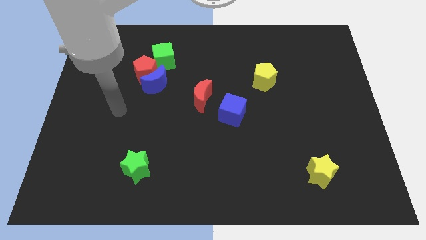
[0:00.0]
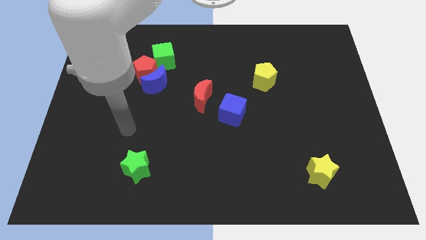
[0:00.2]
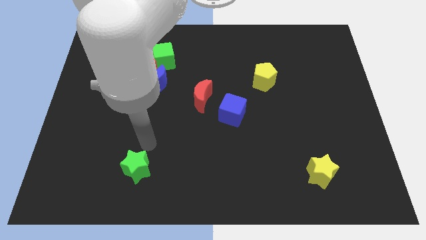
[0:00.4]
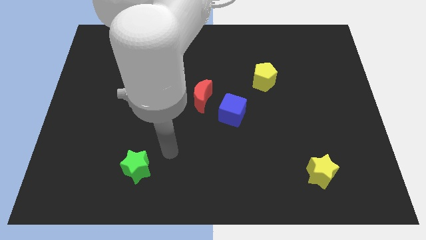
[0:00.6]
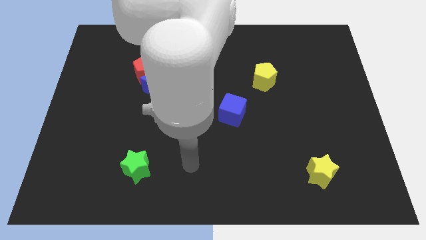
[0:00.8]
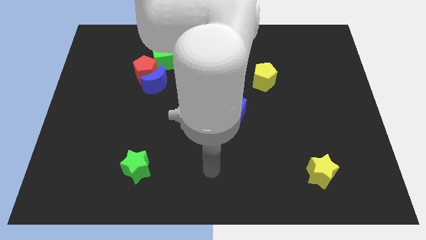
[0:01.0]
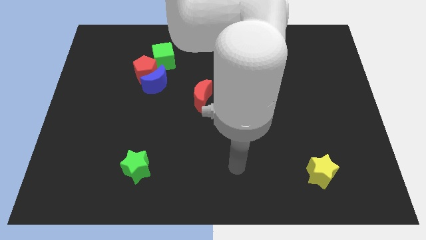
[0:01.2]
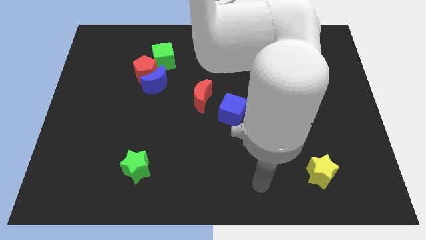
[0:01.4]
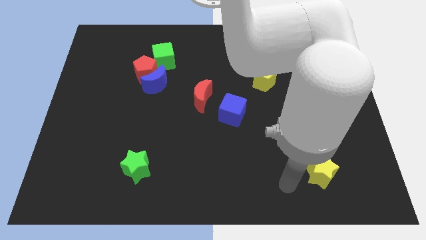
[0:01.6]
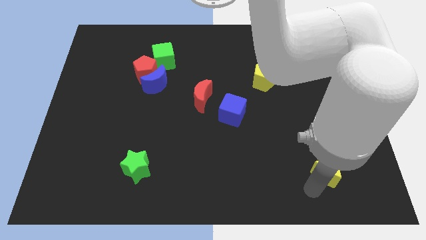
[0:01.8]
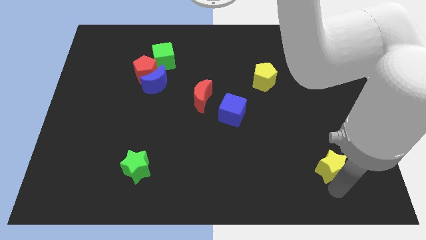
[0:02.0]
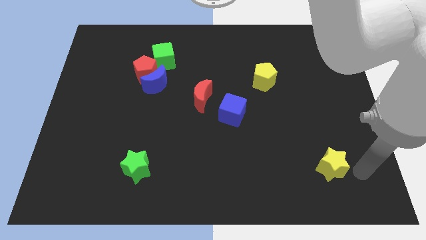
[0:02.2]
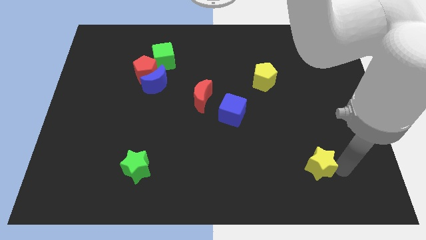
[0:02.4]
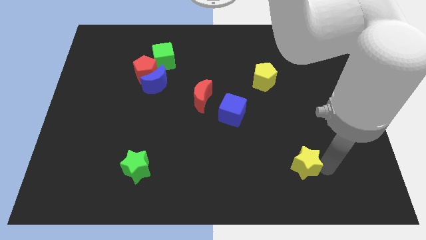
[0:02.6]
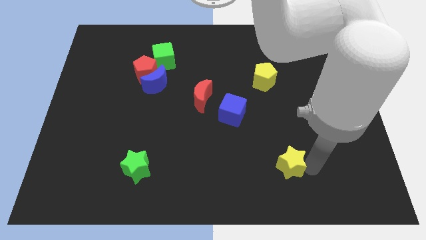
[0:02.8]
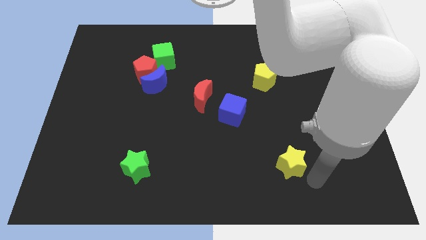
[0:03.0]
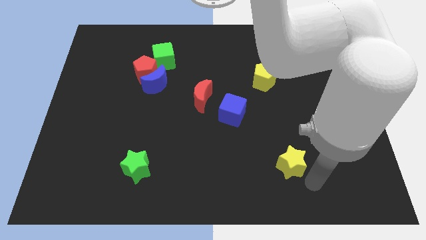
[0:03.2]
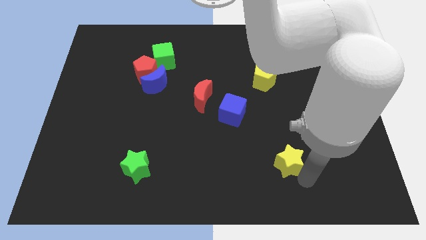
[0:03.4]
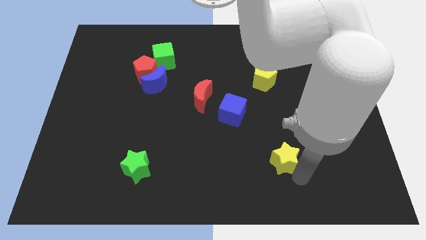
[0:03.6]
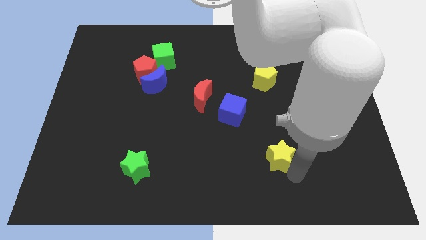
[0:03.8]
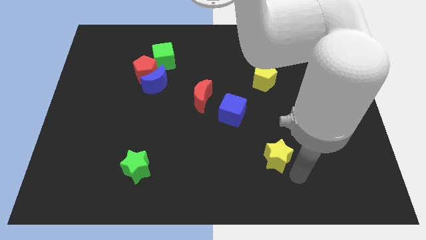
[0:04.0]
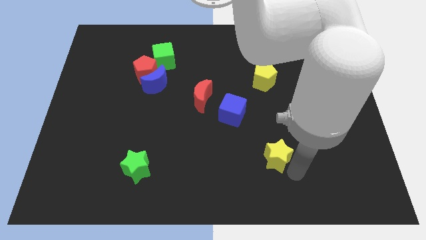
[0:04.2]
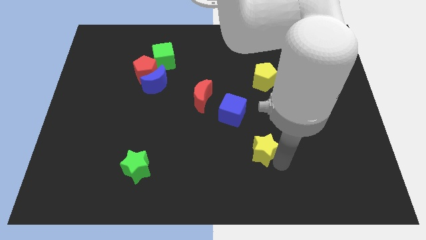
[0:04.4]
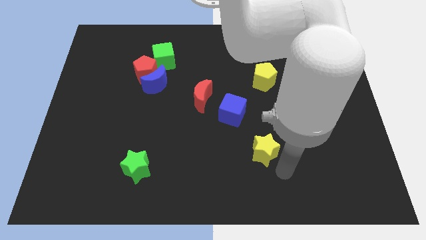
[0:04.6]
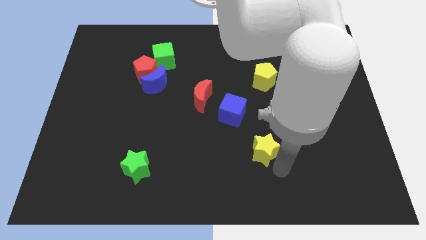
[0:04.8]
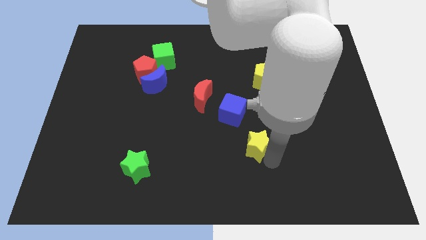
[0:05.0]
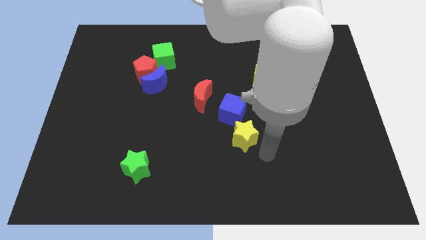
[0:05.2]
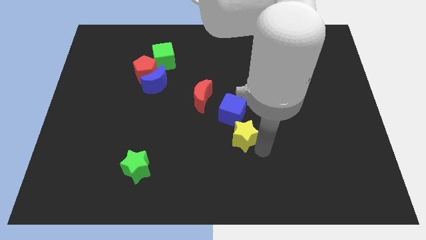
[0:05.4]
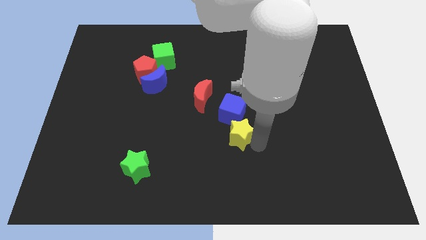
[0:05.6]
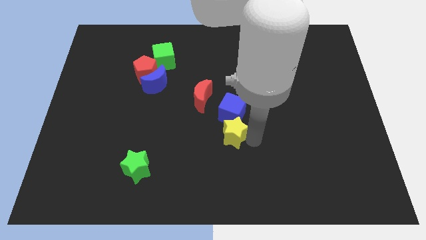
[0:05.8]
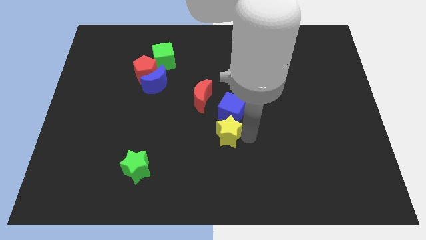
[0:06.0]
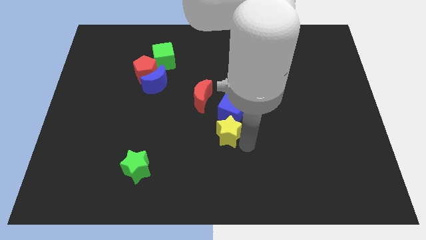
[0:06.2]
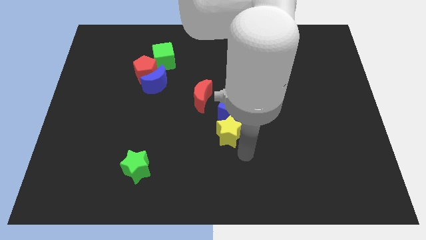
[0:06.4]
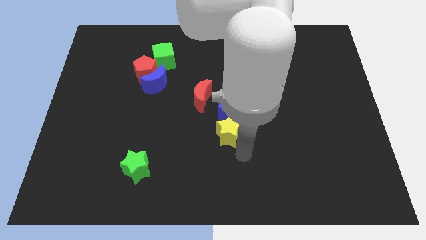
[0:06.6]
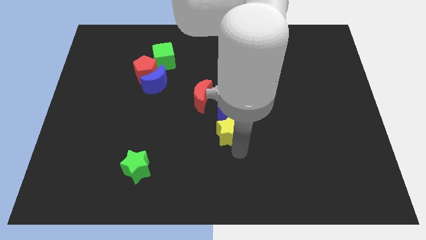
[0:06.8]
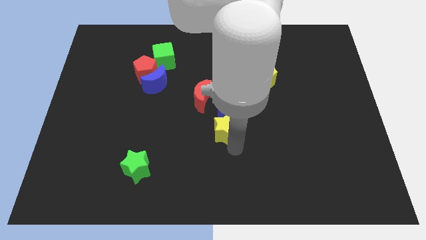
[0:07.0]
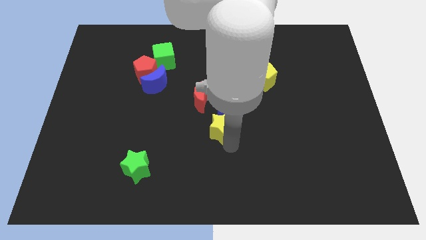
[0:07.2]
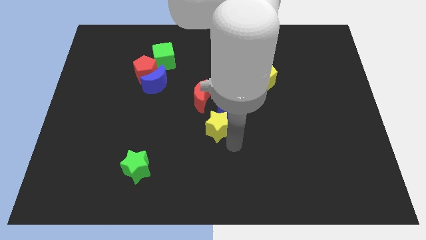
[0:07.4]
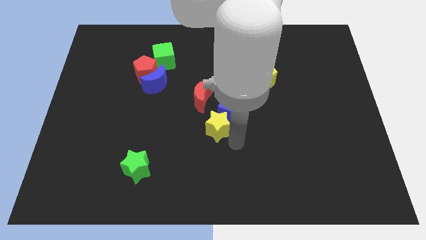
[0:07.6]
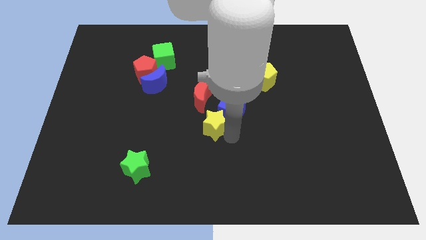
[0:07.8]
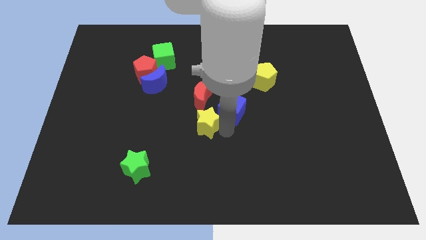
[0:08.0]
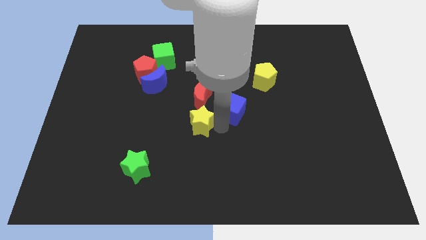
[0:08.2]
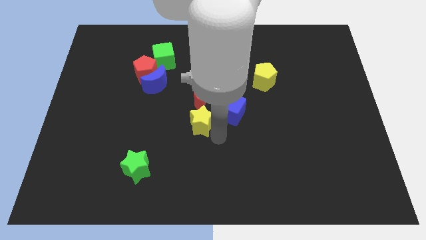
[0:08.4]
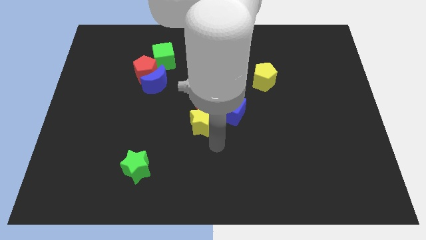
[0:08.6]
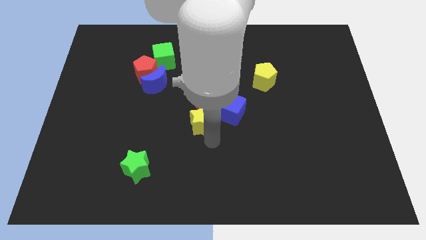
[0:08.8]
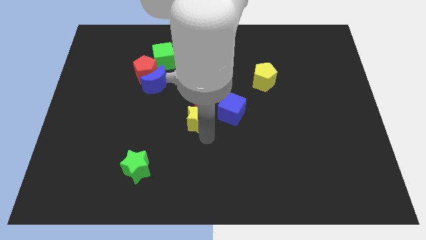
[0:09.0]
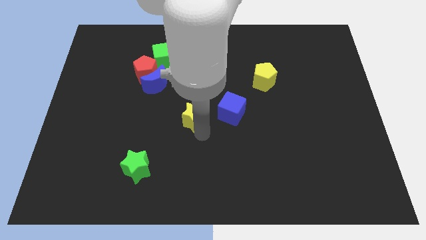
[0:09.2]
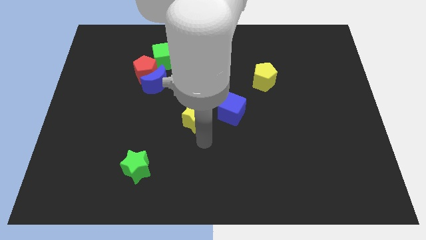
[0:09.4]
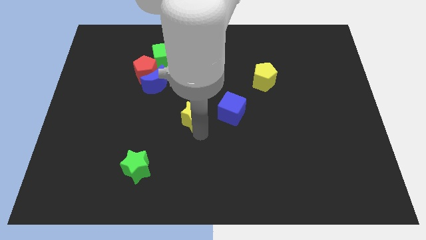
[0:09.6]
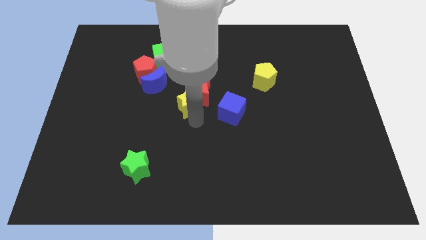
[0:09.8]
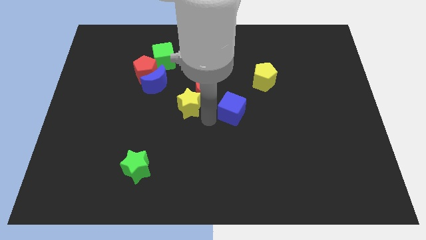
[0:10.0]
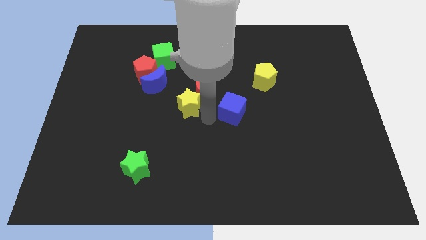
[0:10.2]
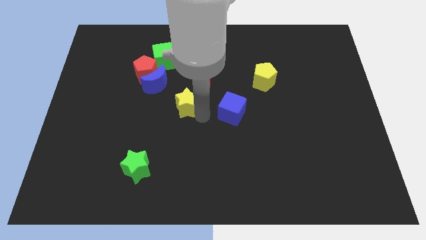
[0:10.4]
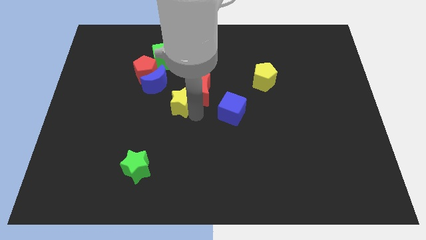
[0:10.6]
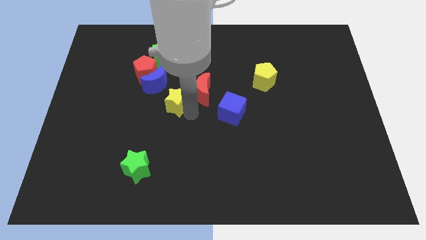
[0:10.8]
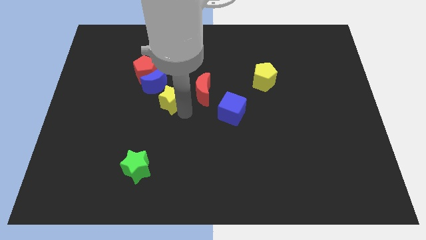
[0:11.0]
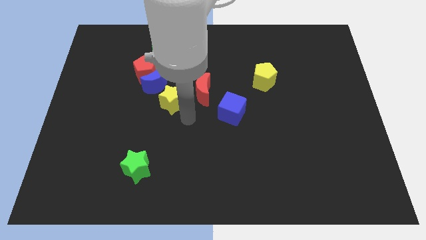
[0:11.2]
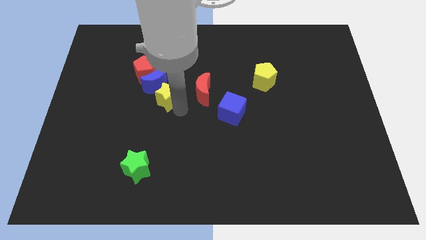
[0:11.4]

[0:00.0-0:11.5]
put the yellow star close to the blue moon

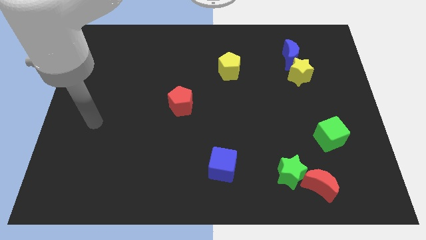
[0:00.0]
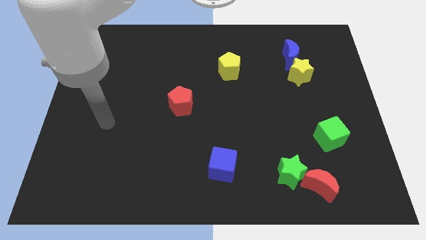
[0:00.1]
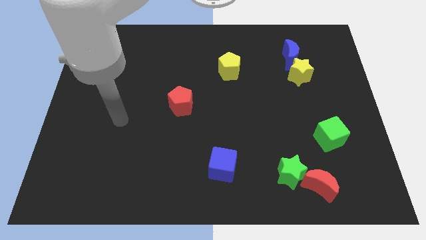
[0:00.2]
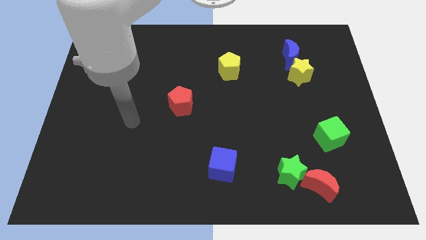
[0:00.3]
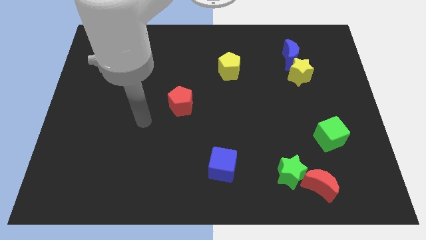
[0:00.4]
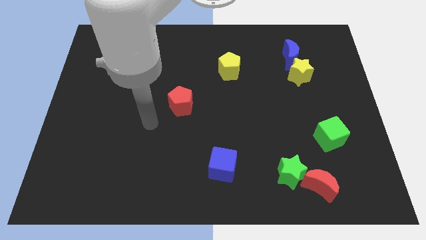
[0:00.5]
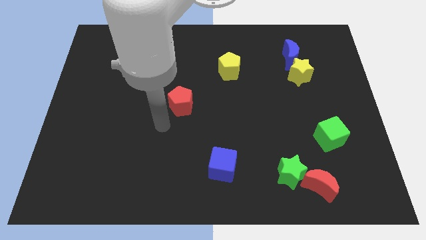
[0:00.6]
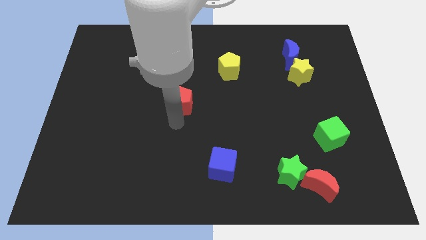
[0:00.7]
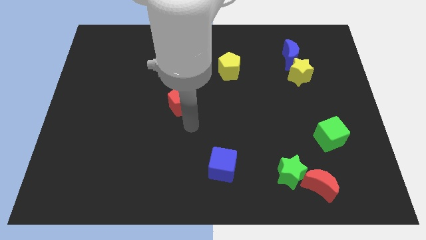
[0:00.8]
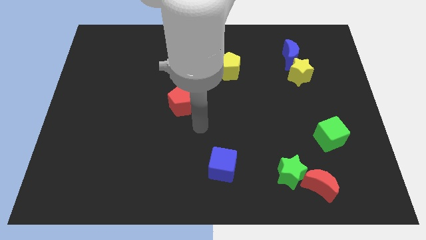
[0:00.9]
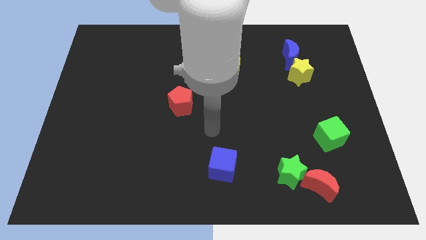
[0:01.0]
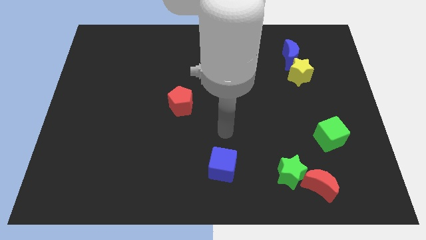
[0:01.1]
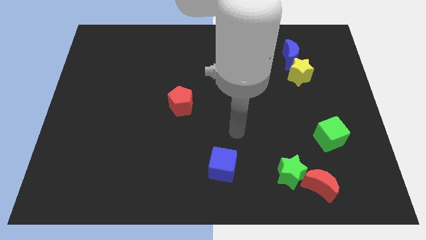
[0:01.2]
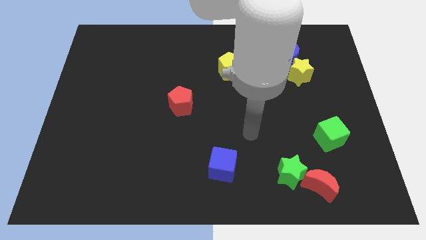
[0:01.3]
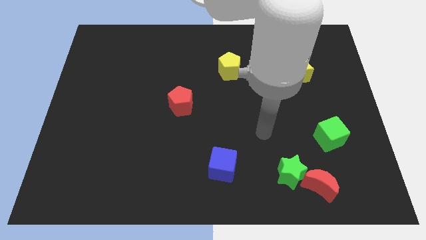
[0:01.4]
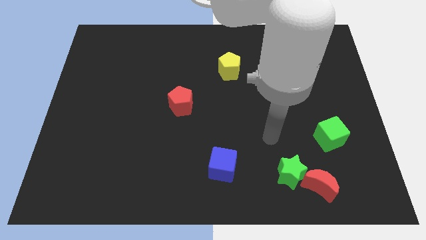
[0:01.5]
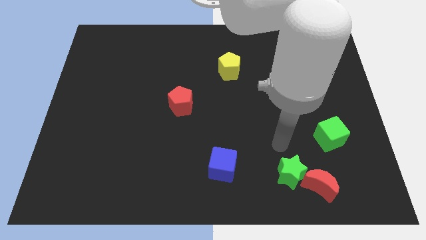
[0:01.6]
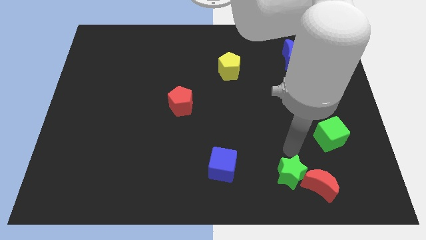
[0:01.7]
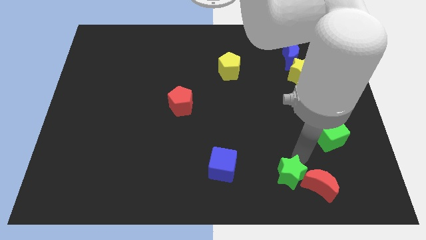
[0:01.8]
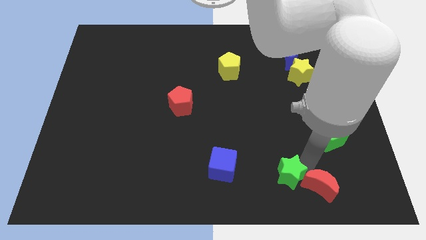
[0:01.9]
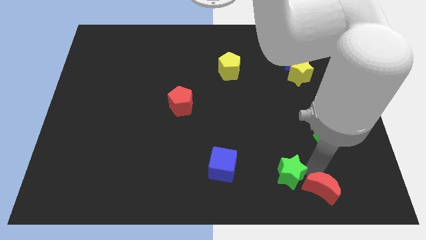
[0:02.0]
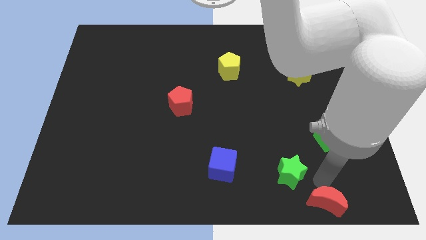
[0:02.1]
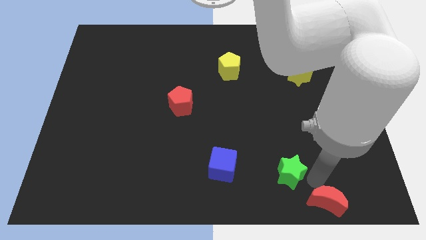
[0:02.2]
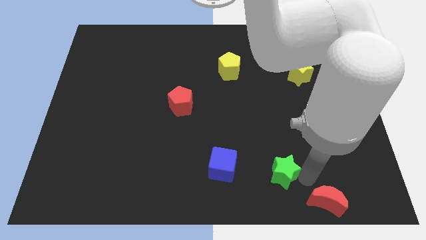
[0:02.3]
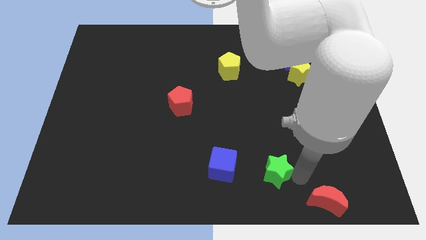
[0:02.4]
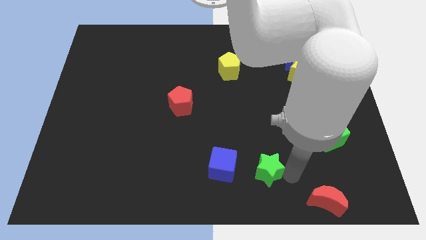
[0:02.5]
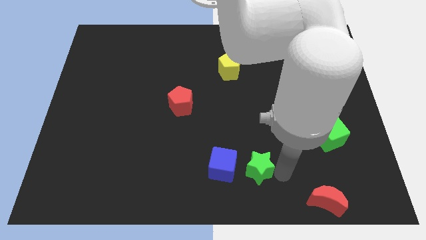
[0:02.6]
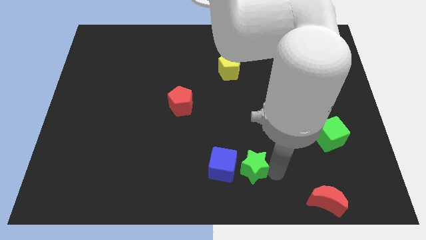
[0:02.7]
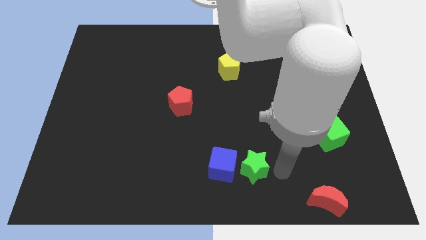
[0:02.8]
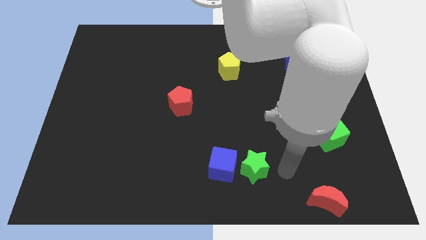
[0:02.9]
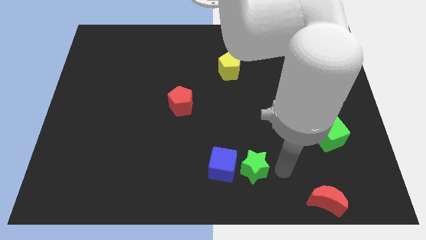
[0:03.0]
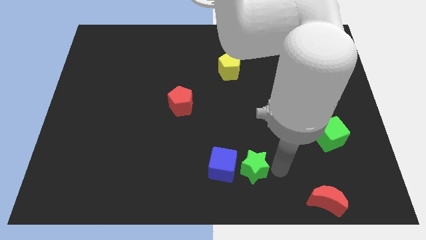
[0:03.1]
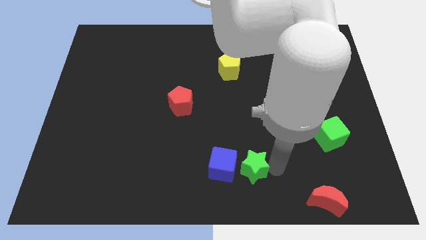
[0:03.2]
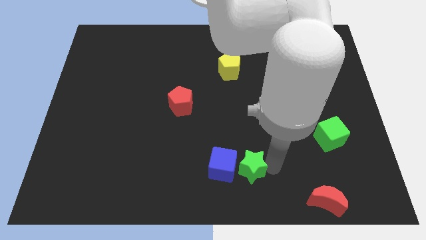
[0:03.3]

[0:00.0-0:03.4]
move the green star next to the blue cube
